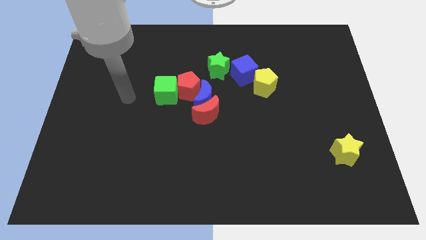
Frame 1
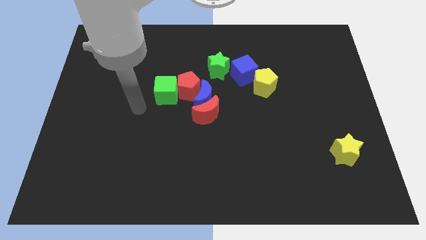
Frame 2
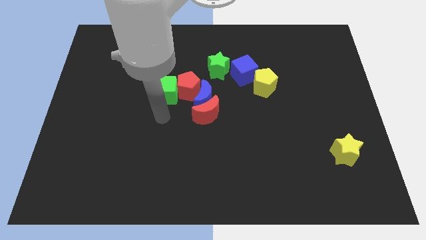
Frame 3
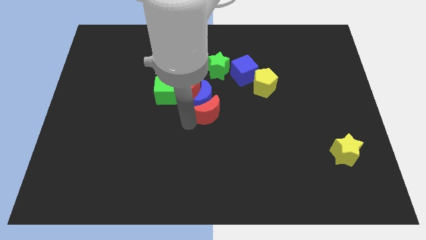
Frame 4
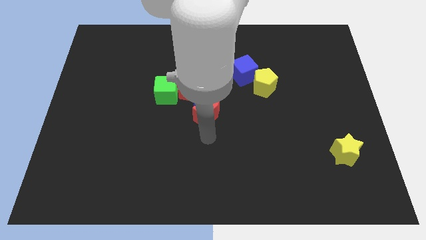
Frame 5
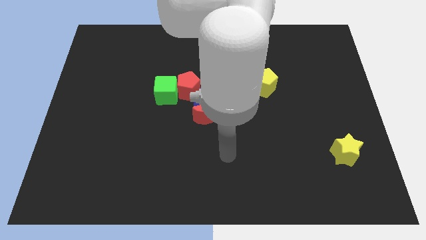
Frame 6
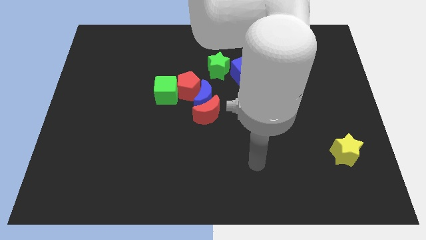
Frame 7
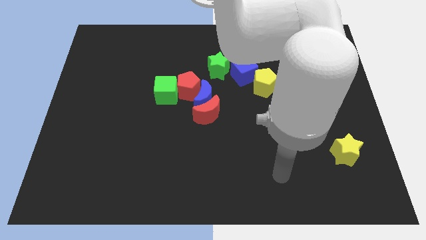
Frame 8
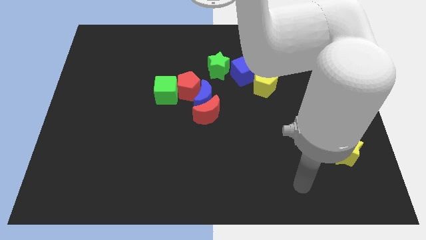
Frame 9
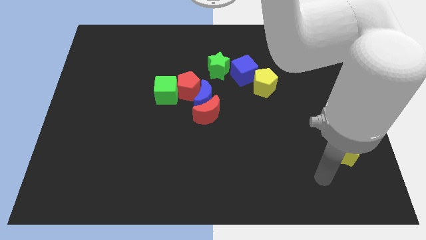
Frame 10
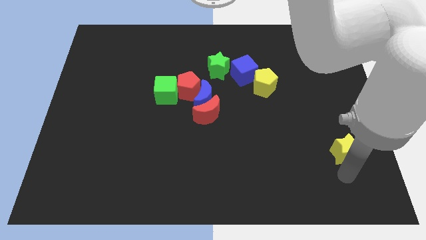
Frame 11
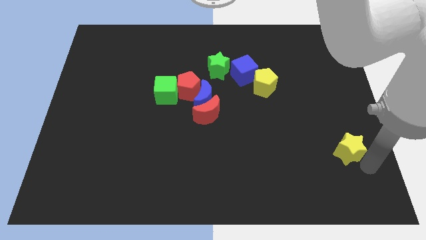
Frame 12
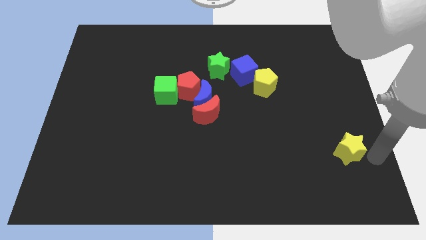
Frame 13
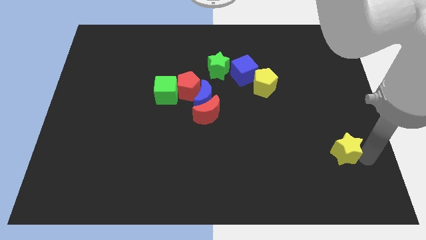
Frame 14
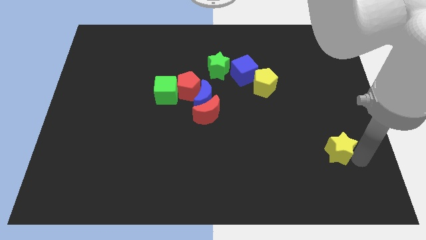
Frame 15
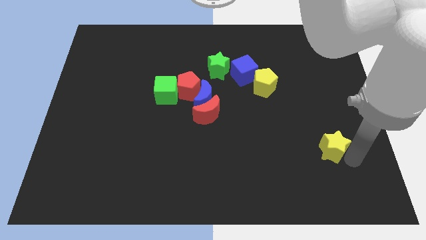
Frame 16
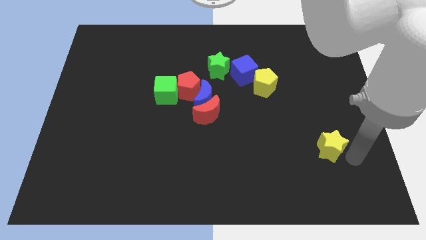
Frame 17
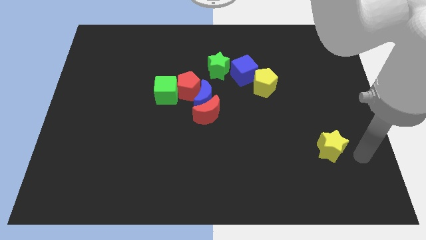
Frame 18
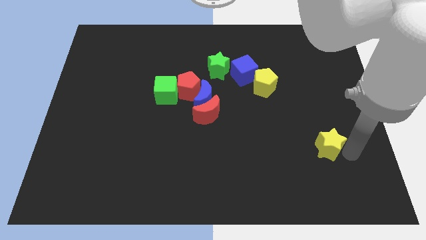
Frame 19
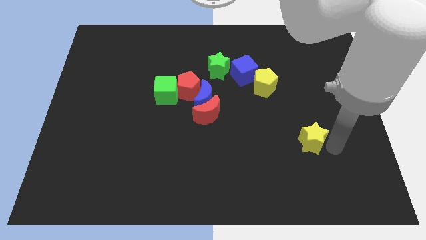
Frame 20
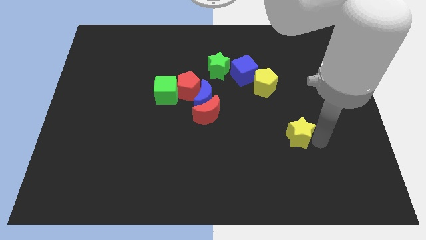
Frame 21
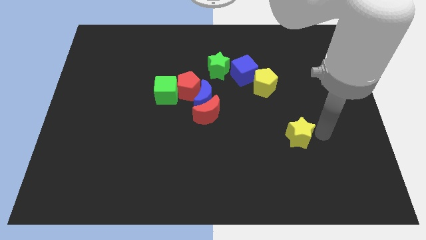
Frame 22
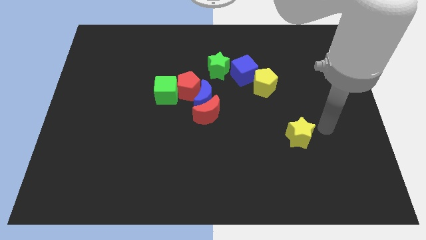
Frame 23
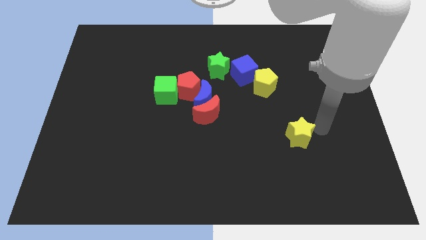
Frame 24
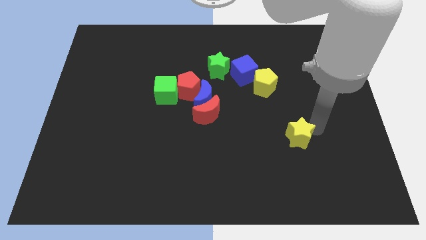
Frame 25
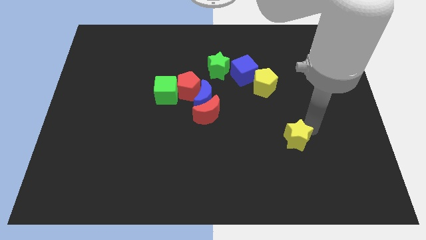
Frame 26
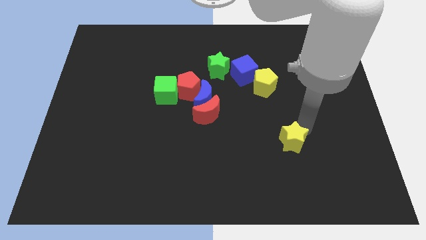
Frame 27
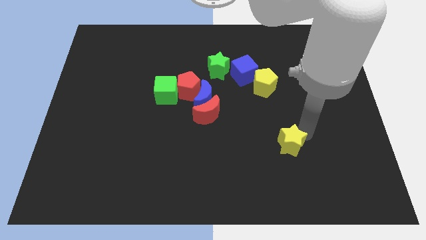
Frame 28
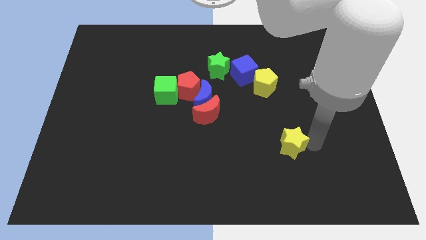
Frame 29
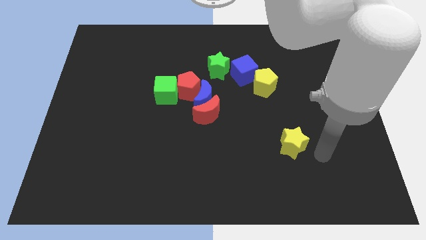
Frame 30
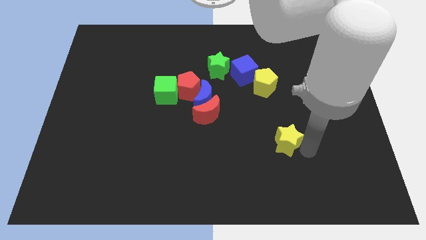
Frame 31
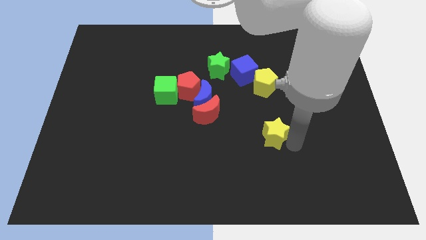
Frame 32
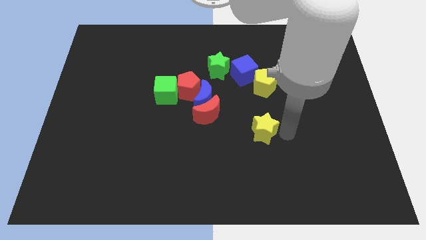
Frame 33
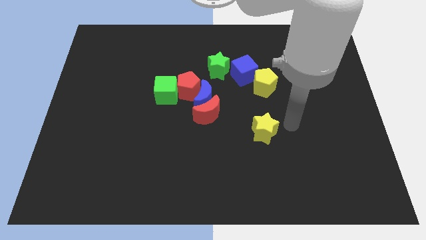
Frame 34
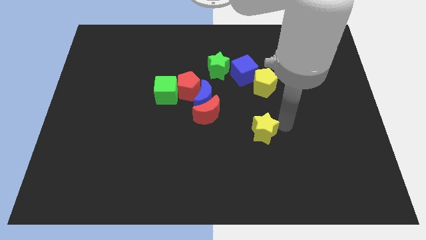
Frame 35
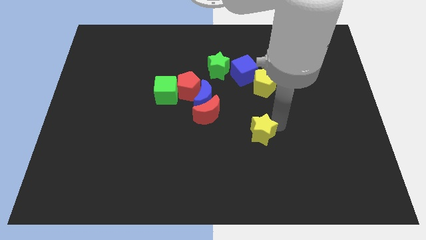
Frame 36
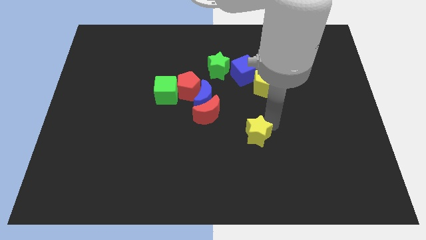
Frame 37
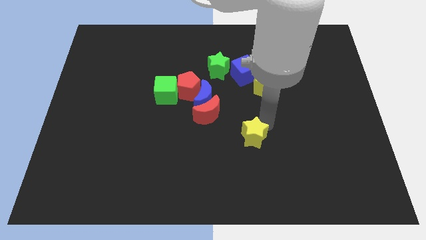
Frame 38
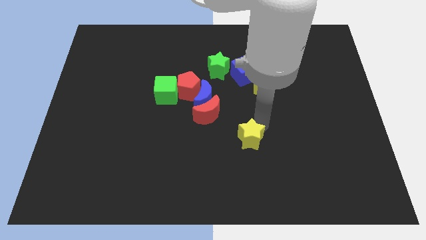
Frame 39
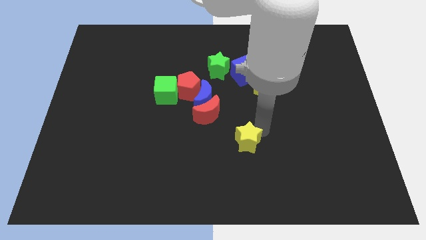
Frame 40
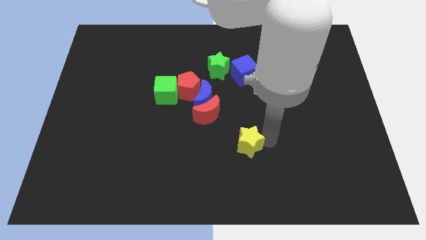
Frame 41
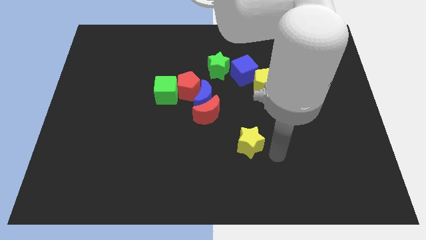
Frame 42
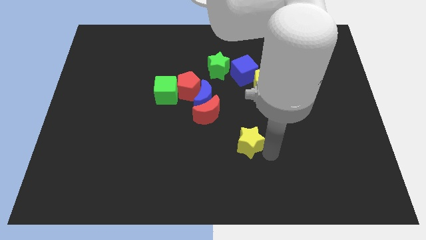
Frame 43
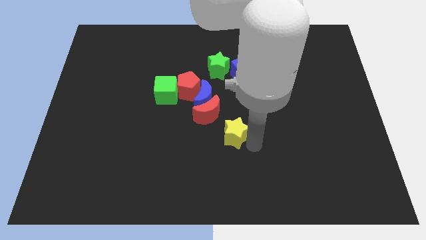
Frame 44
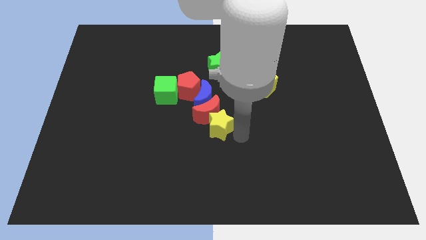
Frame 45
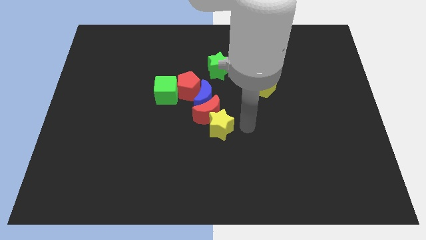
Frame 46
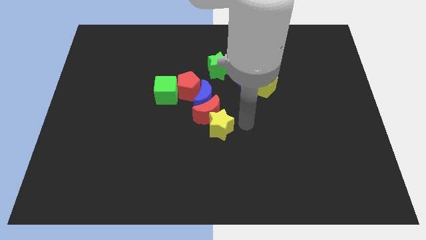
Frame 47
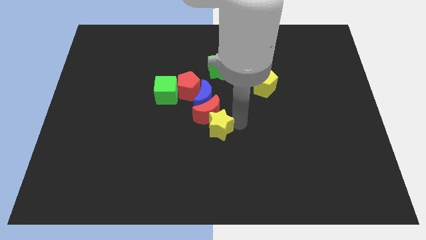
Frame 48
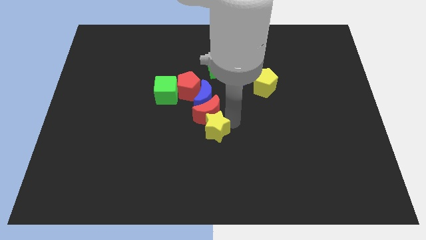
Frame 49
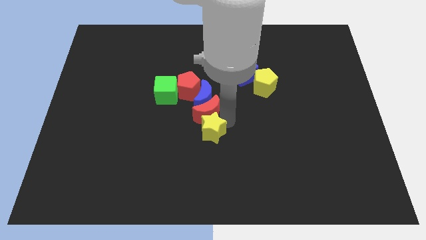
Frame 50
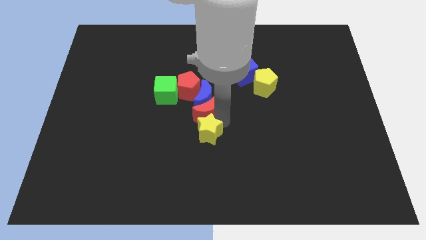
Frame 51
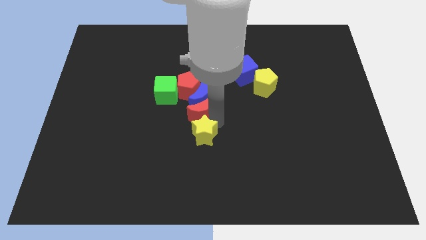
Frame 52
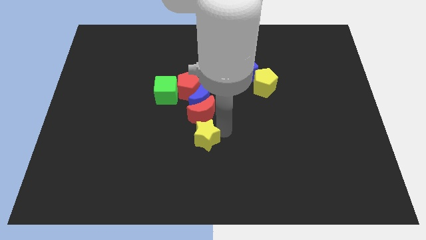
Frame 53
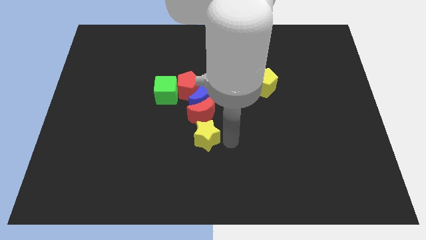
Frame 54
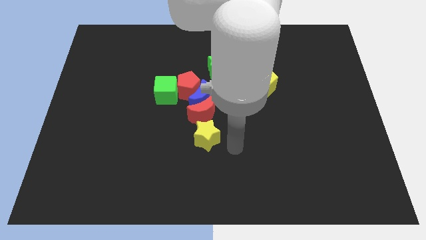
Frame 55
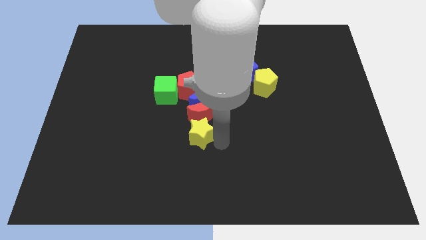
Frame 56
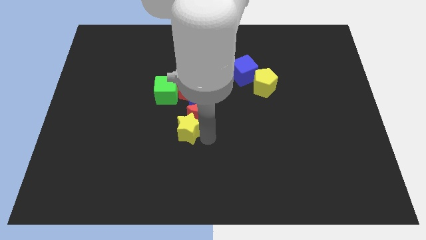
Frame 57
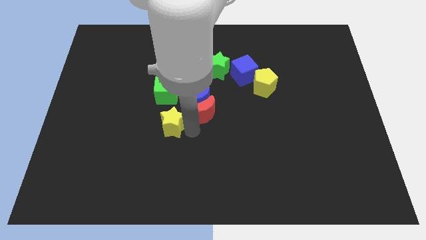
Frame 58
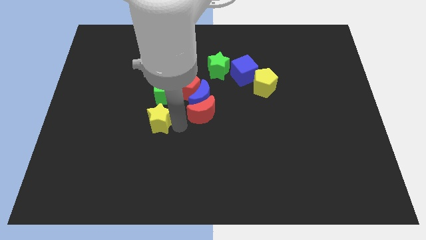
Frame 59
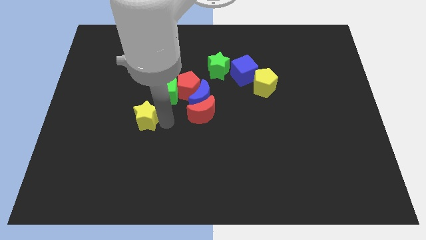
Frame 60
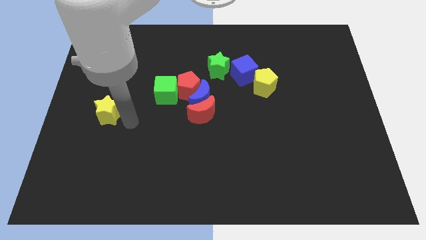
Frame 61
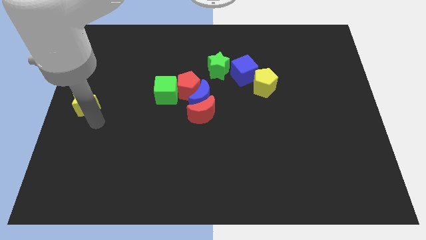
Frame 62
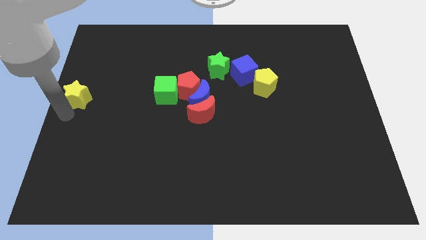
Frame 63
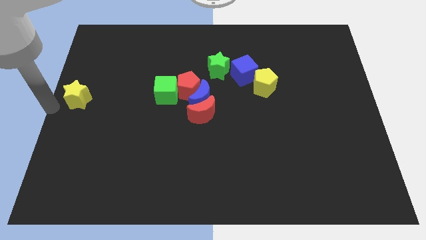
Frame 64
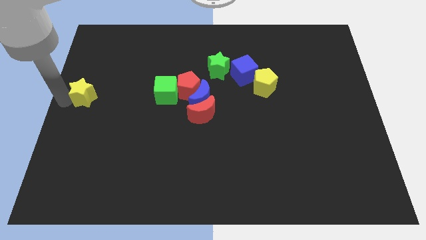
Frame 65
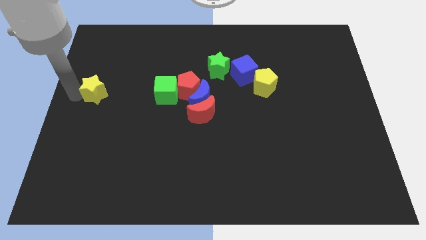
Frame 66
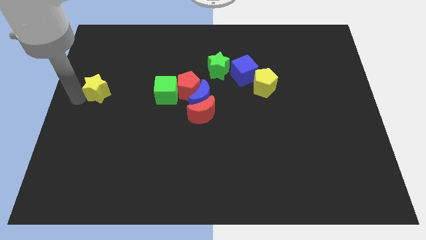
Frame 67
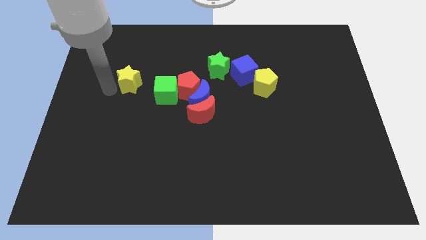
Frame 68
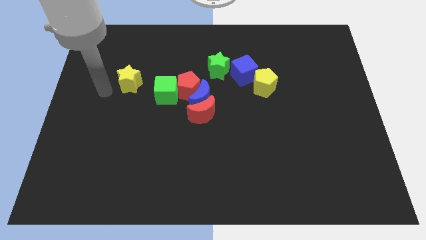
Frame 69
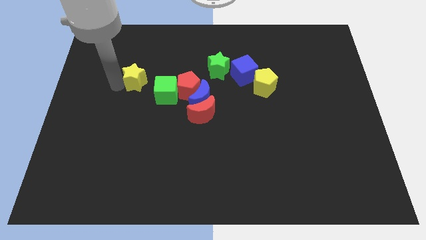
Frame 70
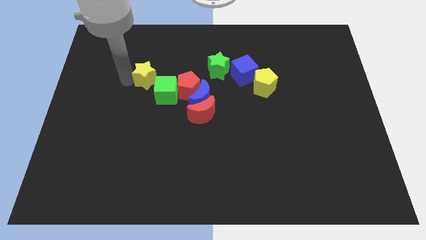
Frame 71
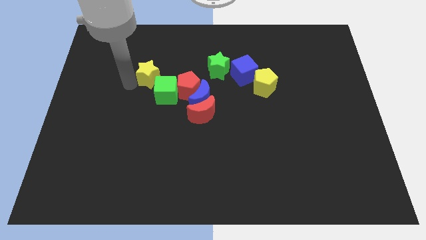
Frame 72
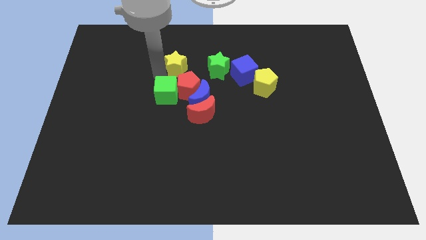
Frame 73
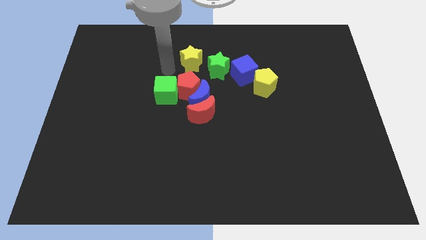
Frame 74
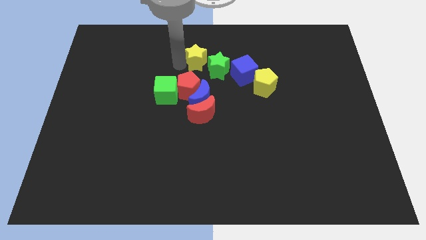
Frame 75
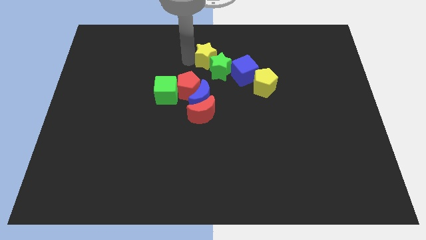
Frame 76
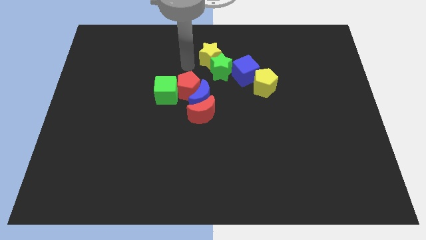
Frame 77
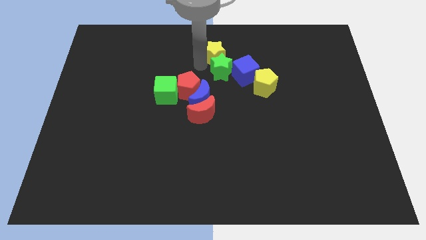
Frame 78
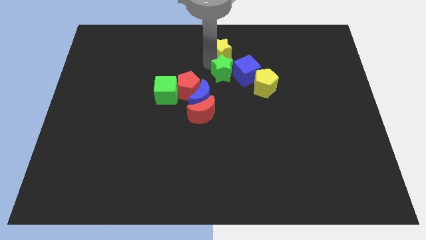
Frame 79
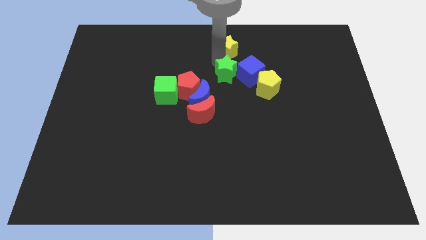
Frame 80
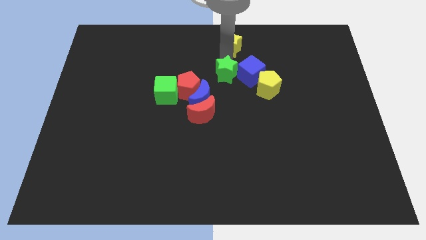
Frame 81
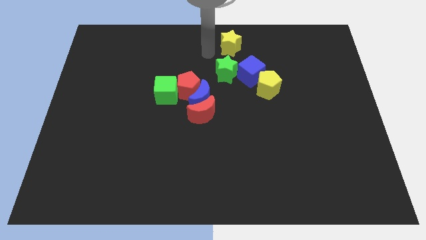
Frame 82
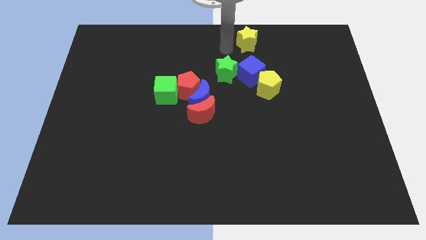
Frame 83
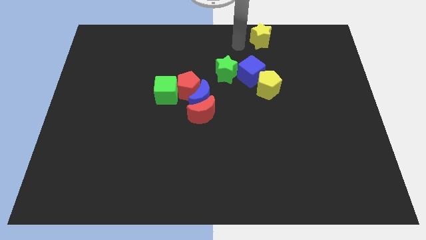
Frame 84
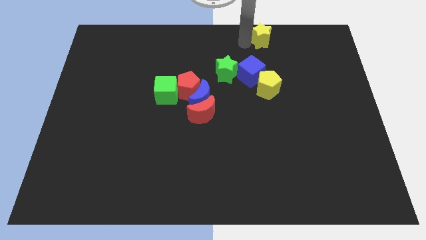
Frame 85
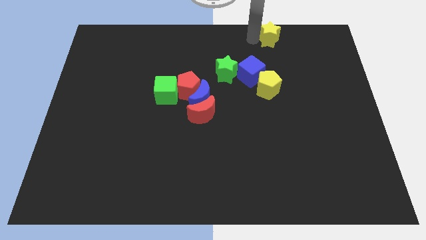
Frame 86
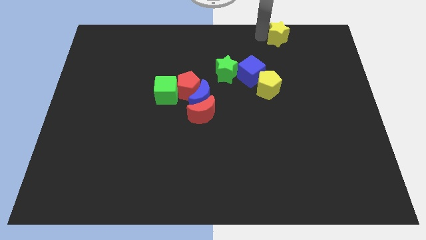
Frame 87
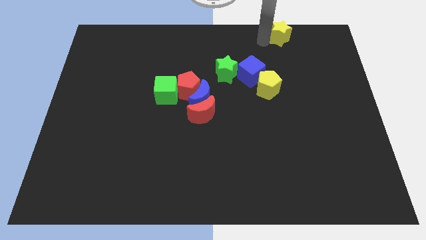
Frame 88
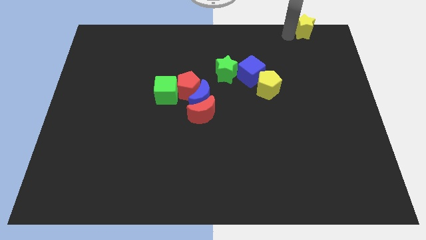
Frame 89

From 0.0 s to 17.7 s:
move the yellow star to the upper right corner
